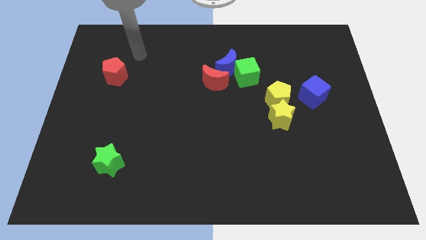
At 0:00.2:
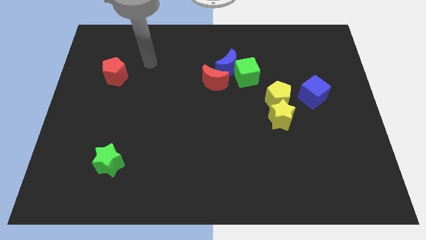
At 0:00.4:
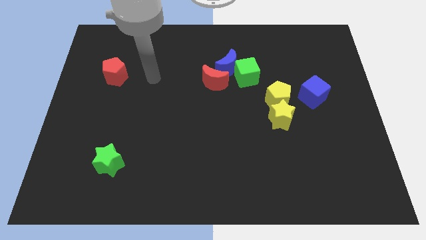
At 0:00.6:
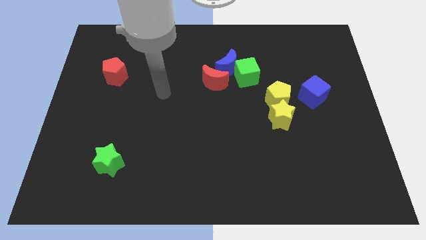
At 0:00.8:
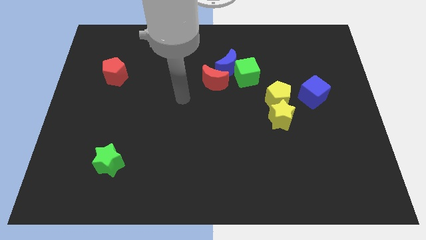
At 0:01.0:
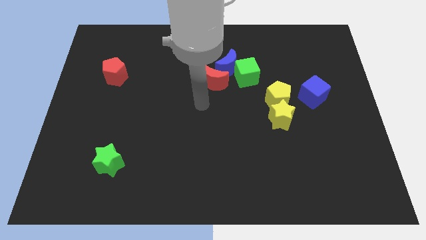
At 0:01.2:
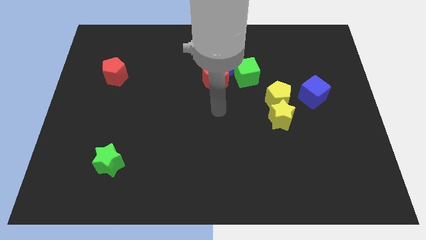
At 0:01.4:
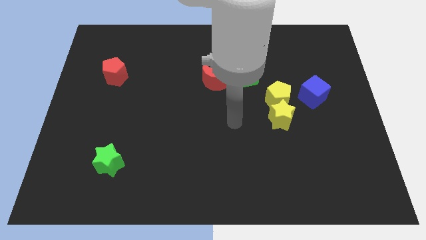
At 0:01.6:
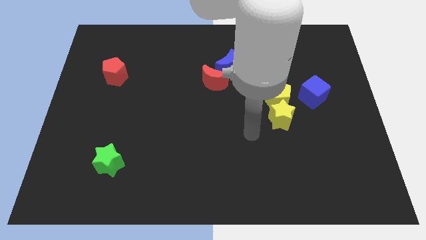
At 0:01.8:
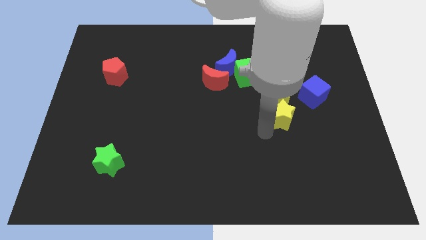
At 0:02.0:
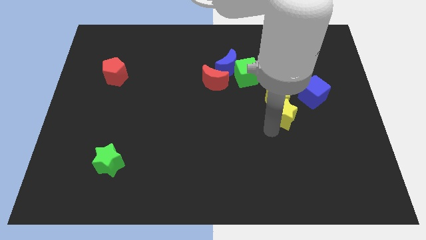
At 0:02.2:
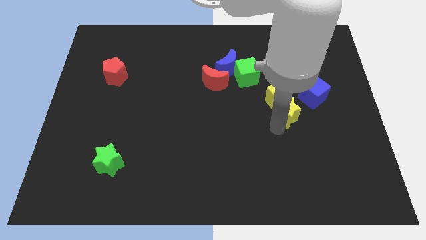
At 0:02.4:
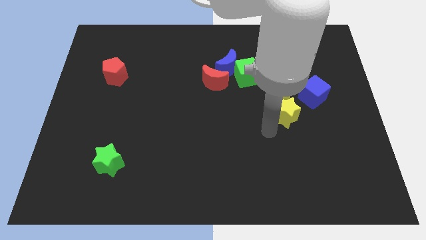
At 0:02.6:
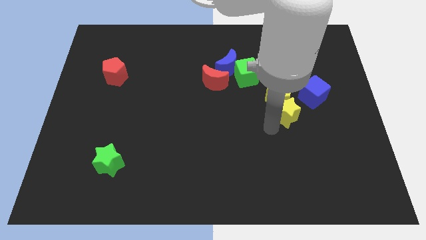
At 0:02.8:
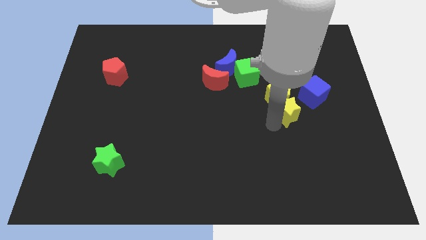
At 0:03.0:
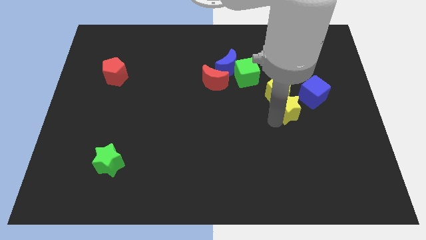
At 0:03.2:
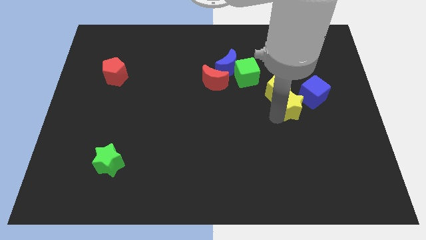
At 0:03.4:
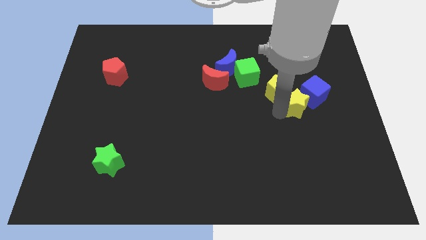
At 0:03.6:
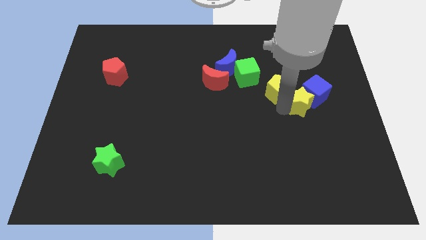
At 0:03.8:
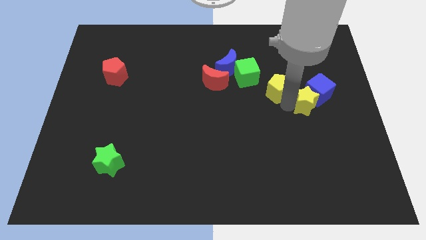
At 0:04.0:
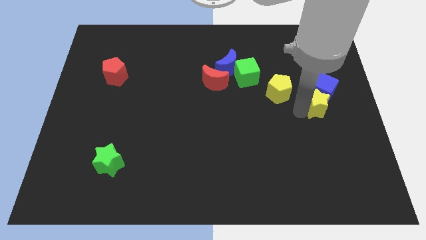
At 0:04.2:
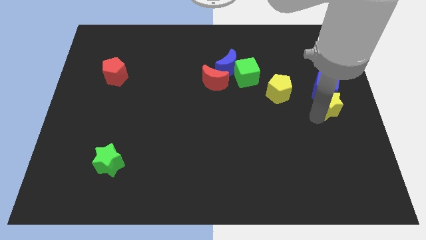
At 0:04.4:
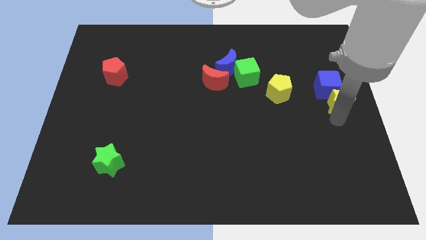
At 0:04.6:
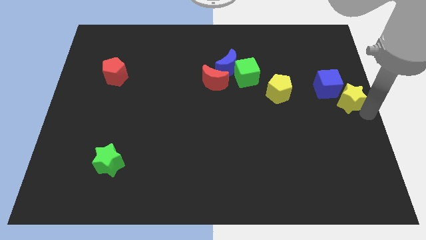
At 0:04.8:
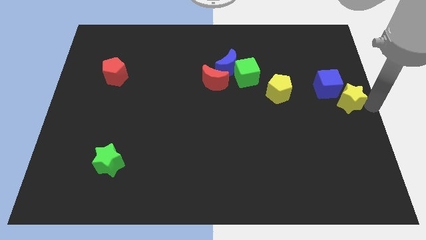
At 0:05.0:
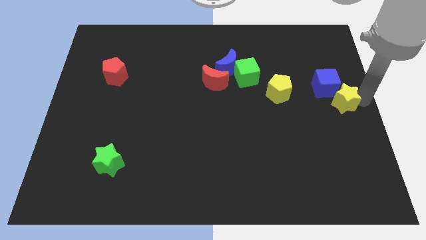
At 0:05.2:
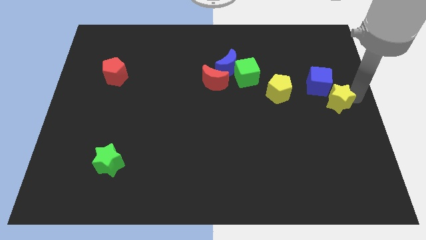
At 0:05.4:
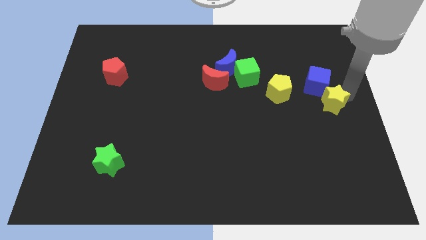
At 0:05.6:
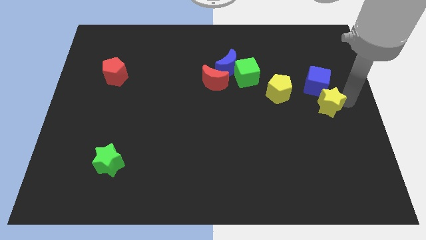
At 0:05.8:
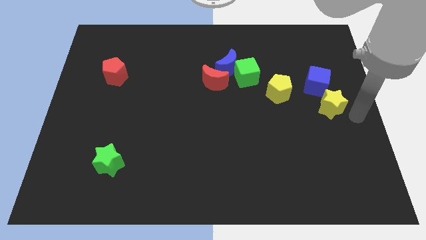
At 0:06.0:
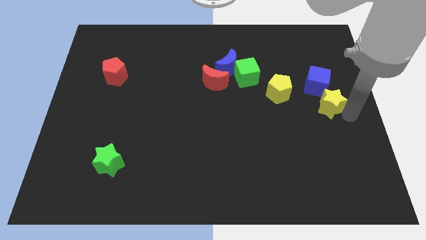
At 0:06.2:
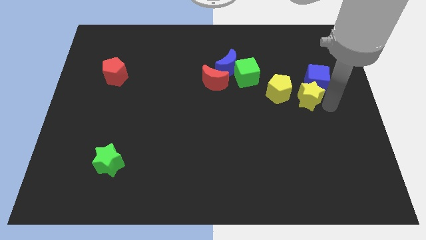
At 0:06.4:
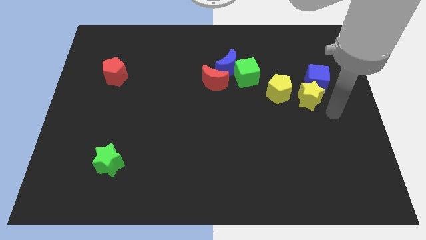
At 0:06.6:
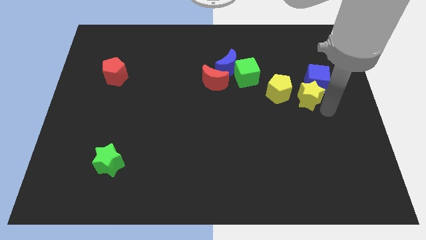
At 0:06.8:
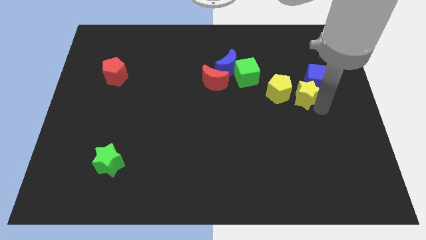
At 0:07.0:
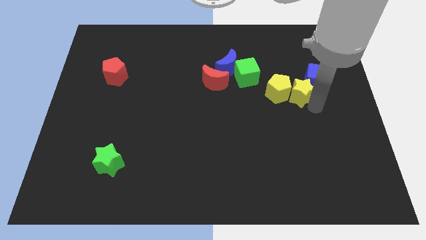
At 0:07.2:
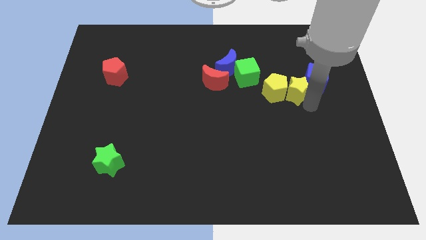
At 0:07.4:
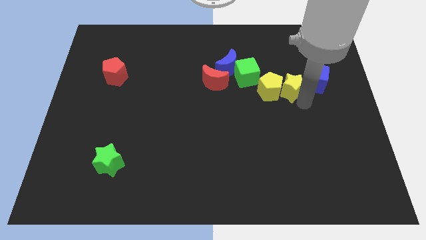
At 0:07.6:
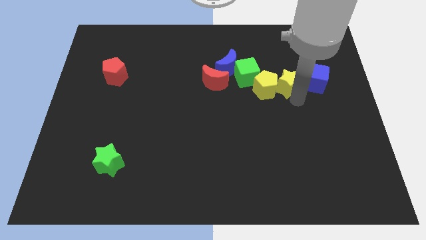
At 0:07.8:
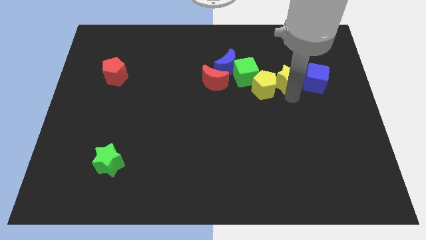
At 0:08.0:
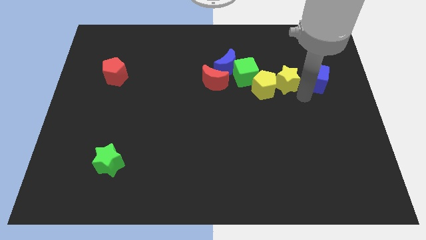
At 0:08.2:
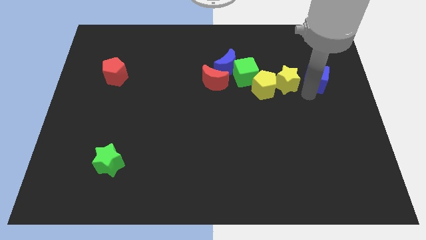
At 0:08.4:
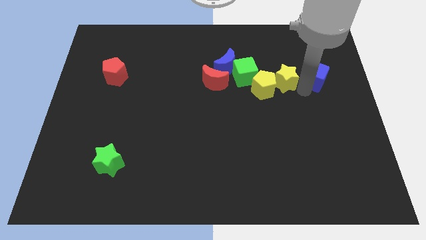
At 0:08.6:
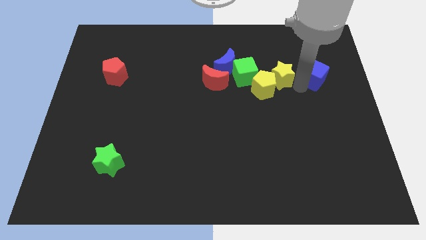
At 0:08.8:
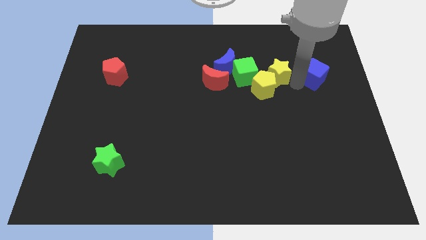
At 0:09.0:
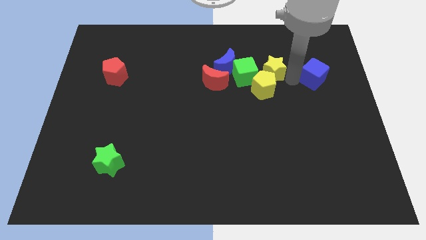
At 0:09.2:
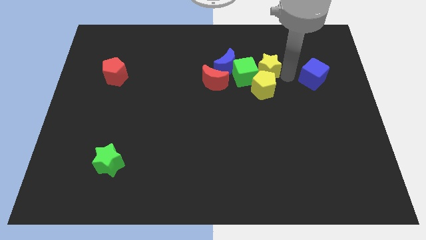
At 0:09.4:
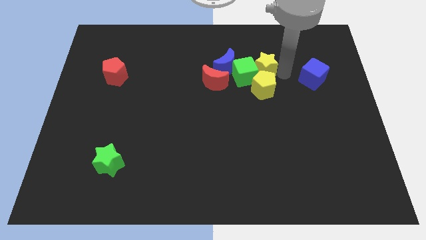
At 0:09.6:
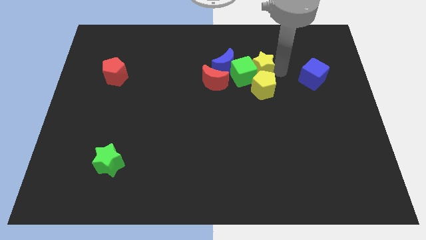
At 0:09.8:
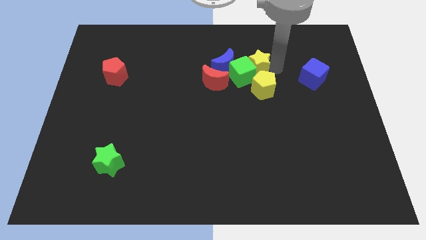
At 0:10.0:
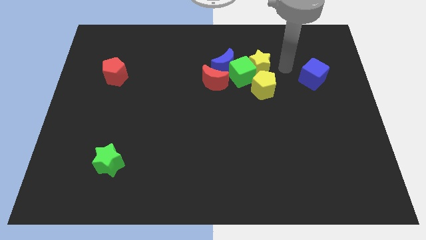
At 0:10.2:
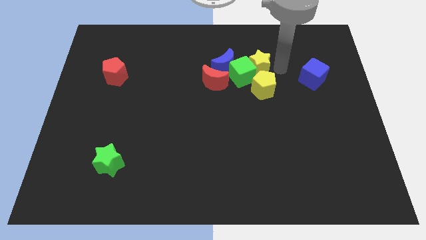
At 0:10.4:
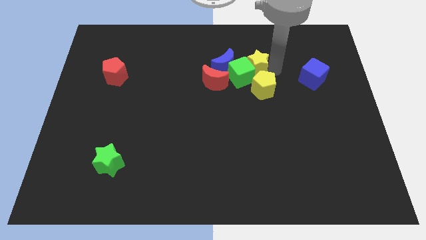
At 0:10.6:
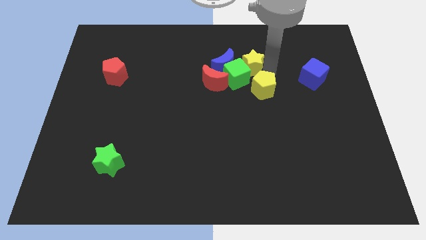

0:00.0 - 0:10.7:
push the yellow star to the top right of the red moon

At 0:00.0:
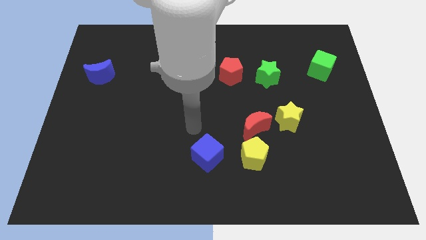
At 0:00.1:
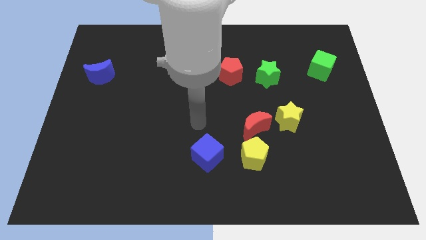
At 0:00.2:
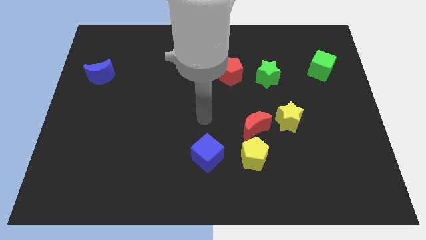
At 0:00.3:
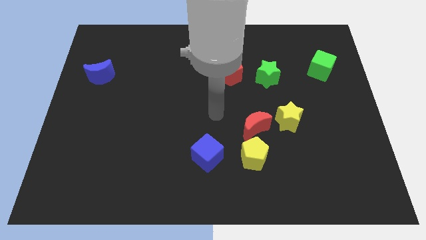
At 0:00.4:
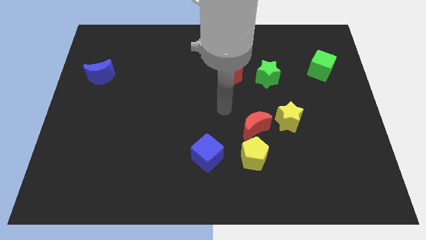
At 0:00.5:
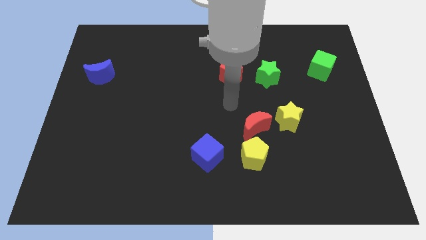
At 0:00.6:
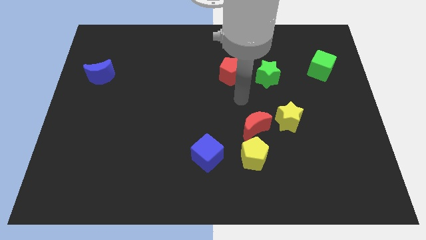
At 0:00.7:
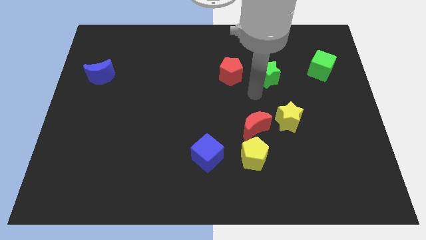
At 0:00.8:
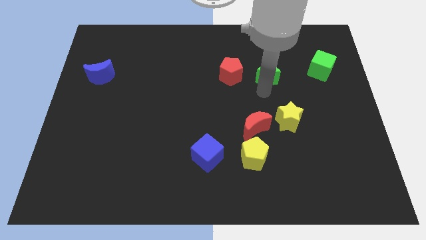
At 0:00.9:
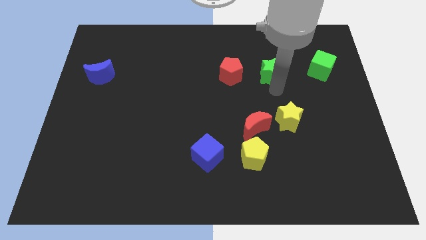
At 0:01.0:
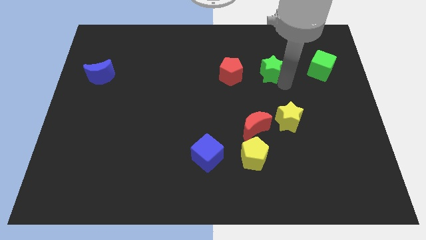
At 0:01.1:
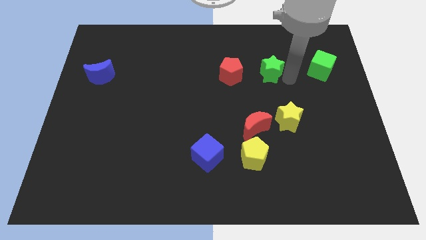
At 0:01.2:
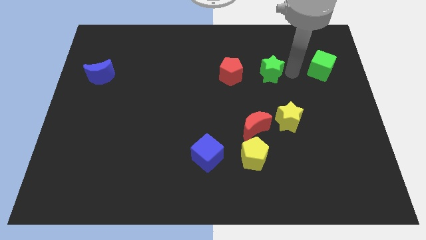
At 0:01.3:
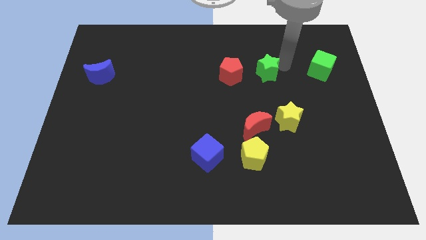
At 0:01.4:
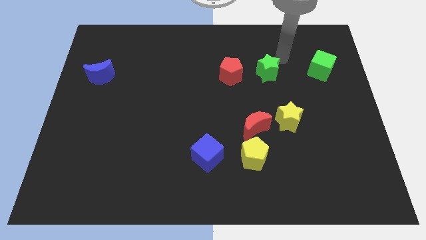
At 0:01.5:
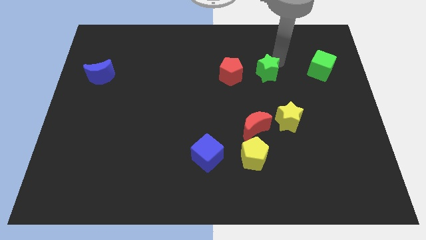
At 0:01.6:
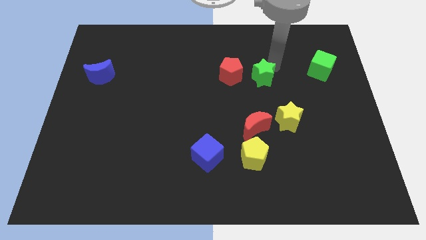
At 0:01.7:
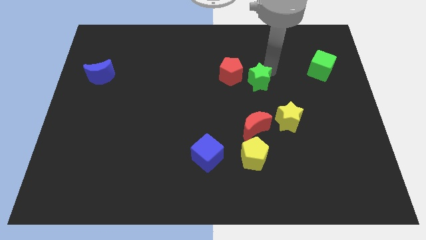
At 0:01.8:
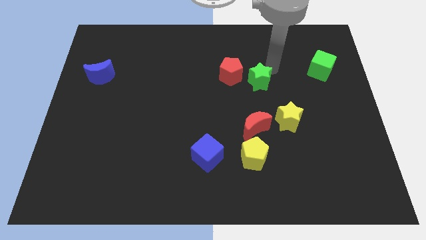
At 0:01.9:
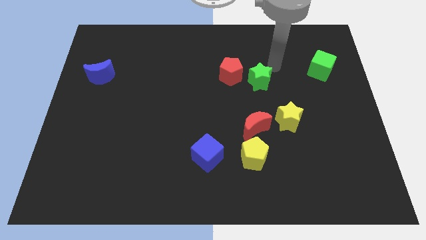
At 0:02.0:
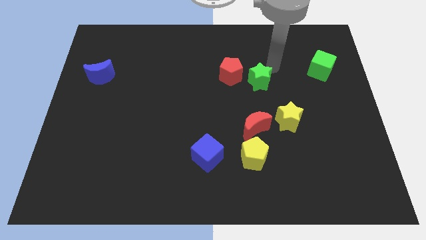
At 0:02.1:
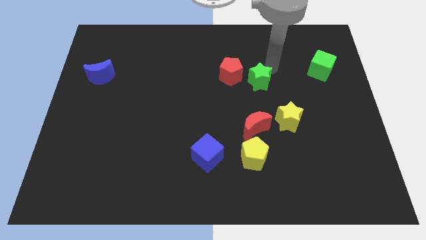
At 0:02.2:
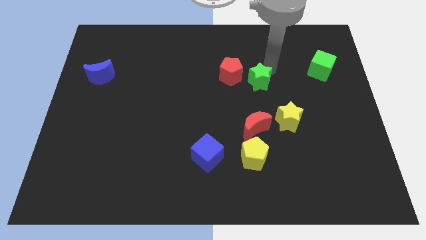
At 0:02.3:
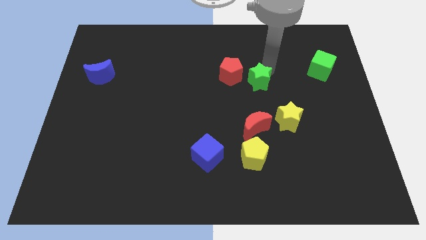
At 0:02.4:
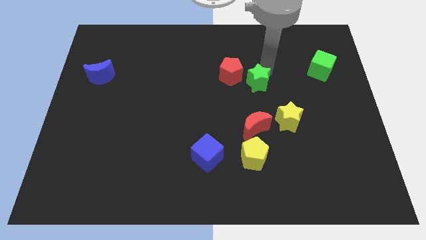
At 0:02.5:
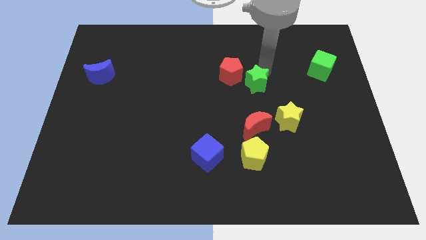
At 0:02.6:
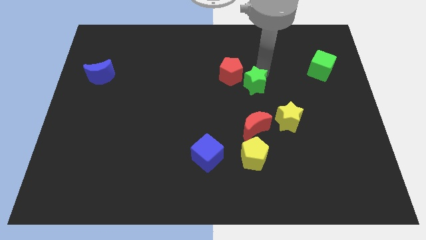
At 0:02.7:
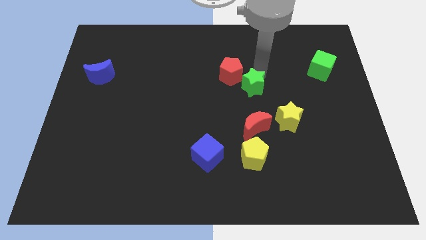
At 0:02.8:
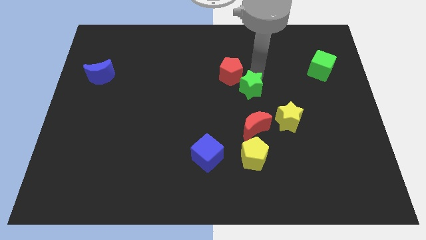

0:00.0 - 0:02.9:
push the green star to the bottom of the red pentagon
